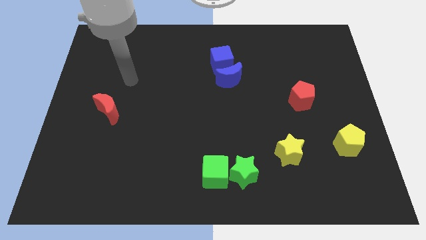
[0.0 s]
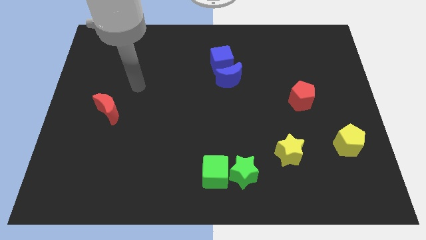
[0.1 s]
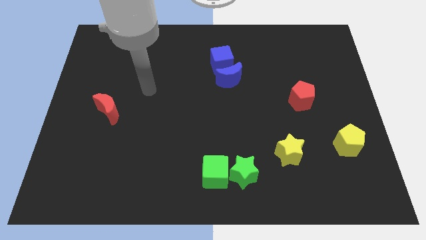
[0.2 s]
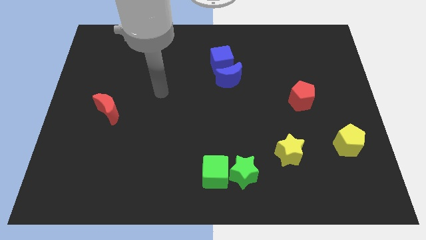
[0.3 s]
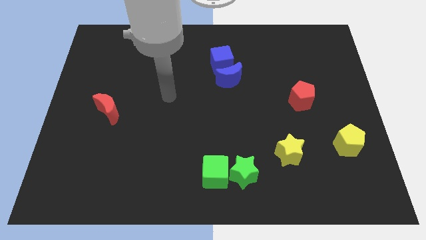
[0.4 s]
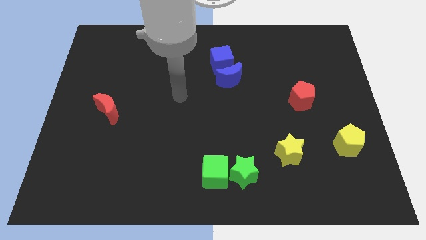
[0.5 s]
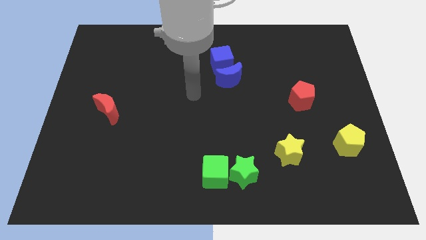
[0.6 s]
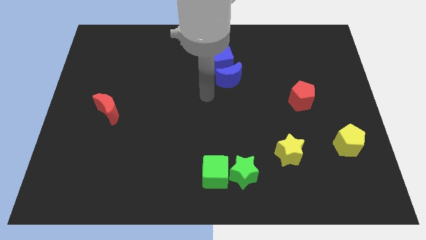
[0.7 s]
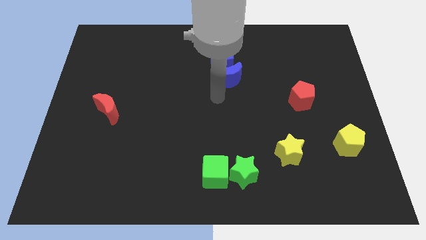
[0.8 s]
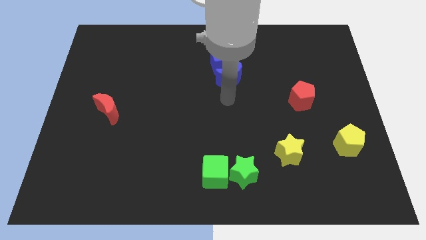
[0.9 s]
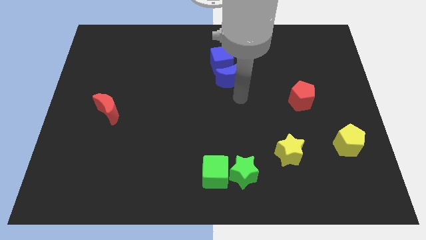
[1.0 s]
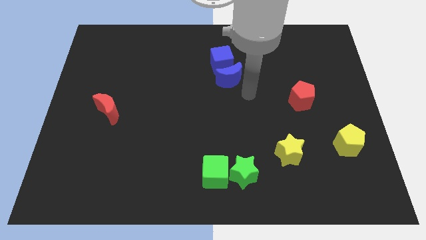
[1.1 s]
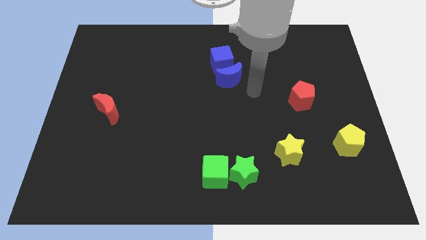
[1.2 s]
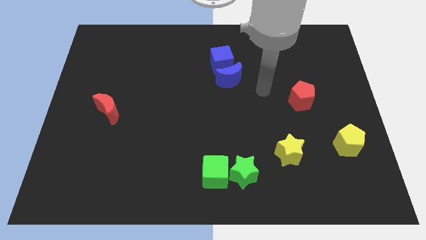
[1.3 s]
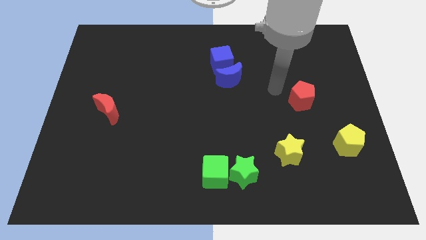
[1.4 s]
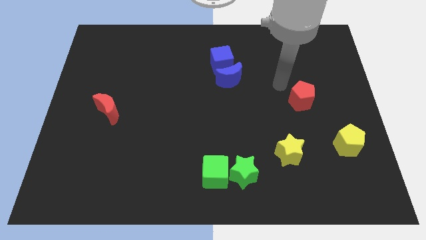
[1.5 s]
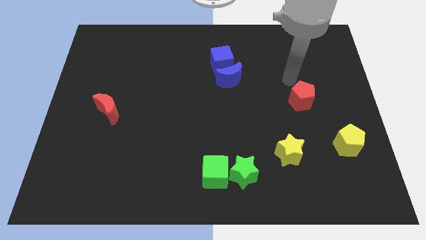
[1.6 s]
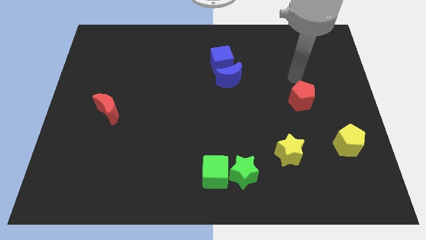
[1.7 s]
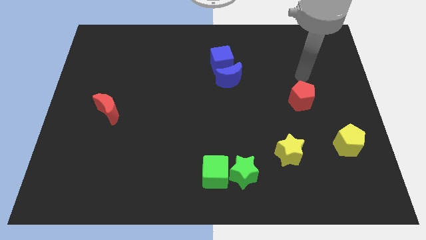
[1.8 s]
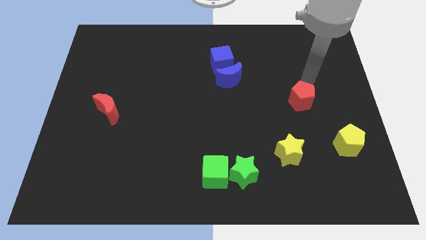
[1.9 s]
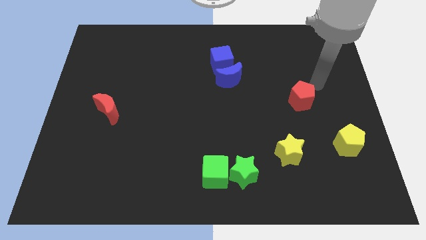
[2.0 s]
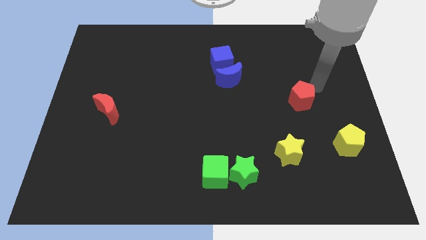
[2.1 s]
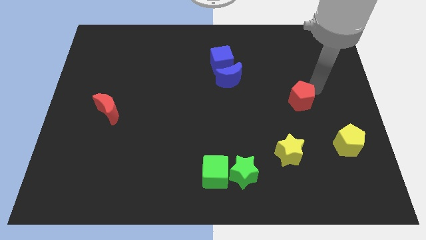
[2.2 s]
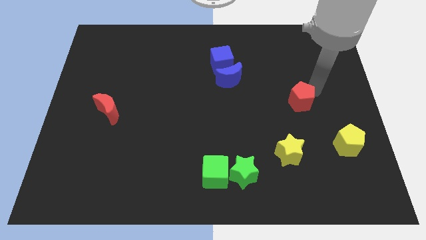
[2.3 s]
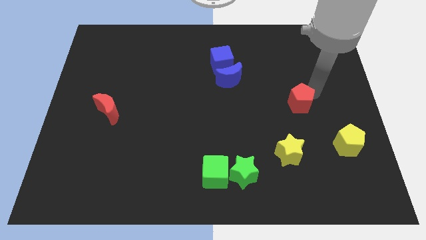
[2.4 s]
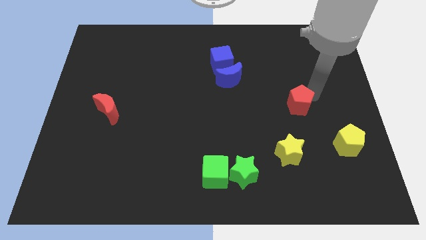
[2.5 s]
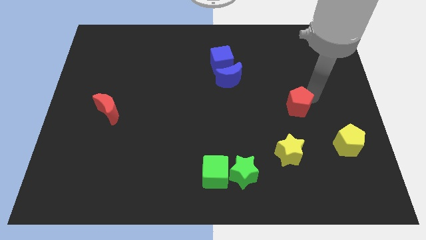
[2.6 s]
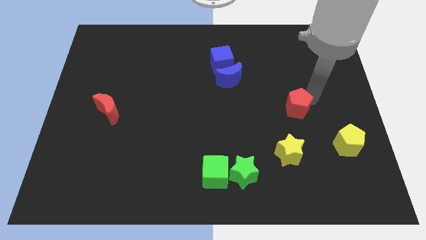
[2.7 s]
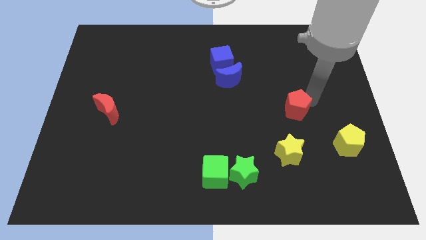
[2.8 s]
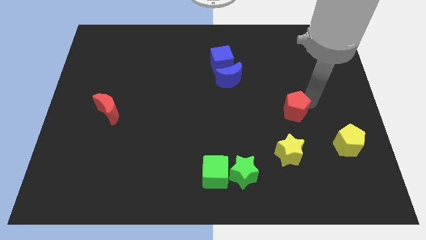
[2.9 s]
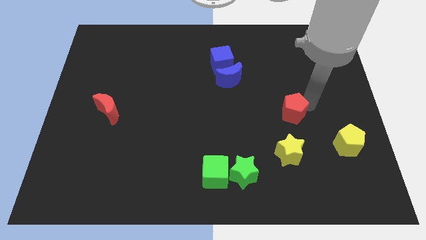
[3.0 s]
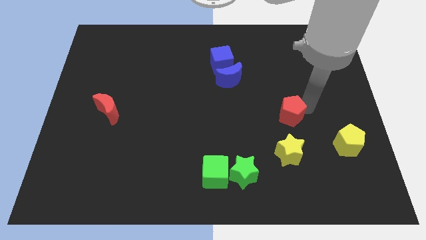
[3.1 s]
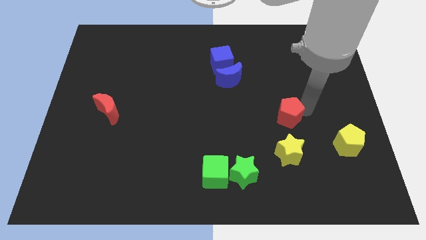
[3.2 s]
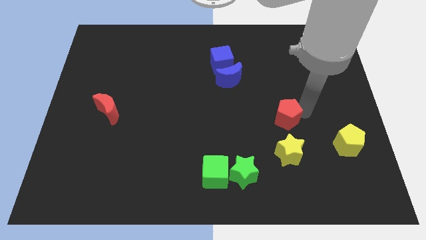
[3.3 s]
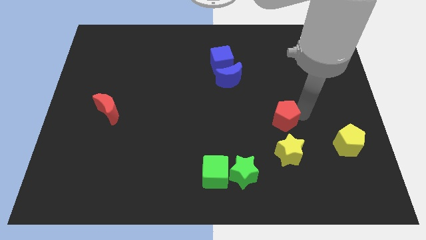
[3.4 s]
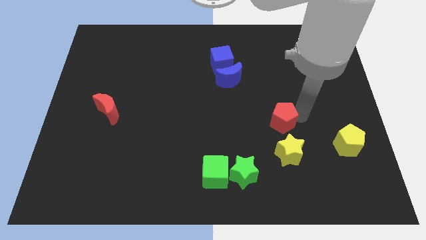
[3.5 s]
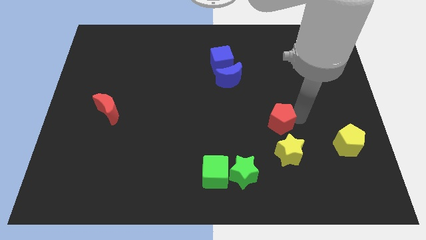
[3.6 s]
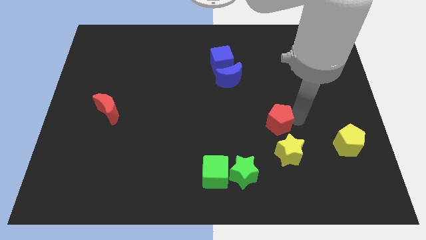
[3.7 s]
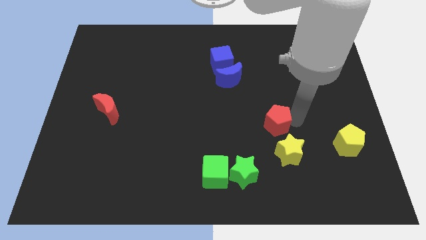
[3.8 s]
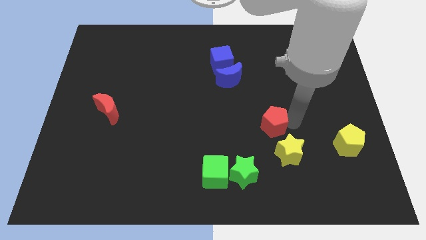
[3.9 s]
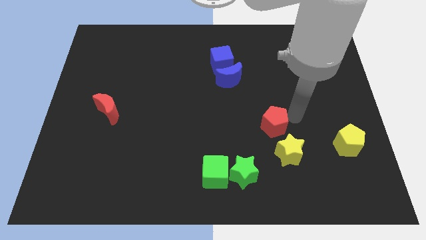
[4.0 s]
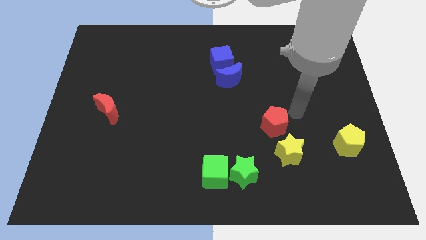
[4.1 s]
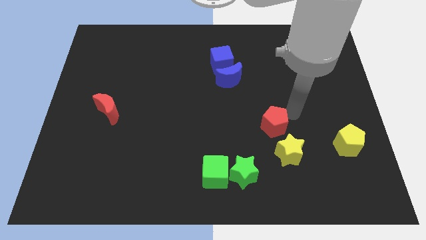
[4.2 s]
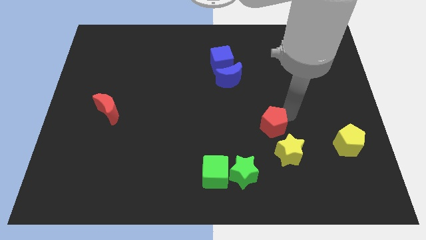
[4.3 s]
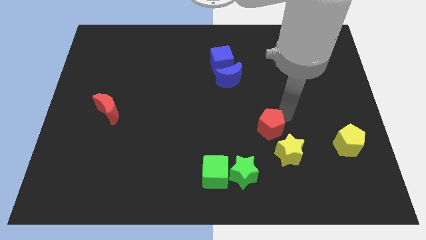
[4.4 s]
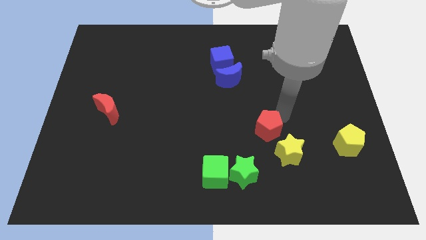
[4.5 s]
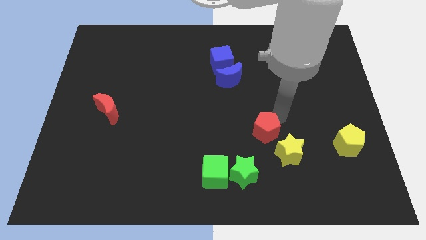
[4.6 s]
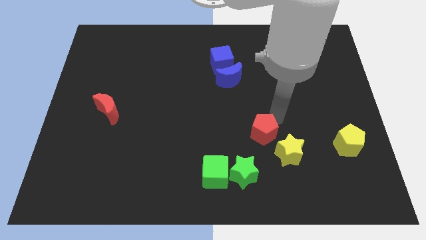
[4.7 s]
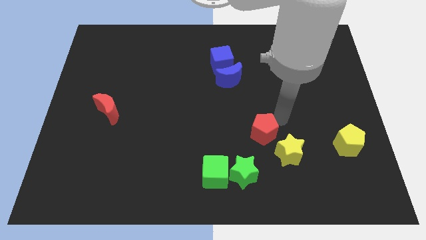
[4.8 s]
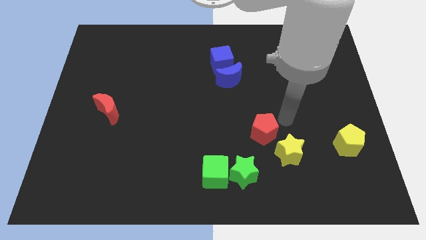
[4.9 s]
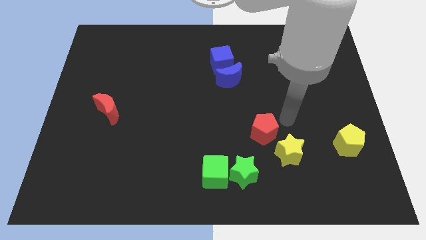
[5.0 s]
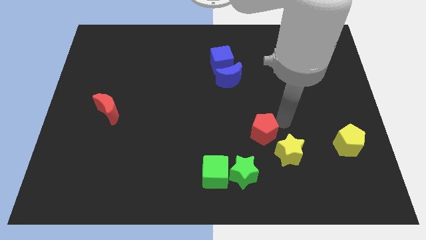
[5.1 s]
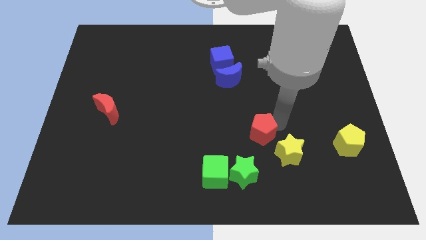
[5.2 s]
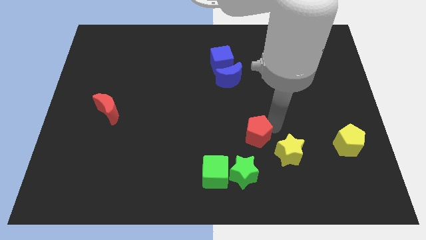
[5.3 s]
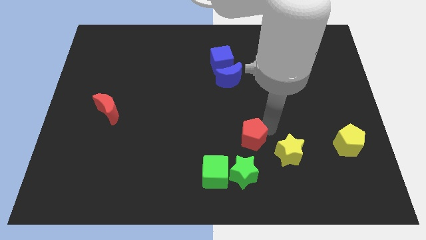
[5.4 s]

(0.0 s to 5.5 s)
slide the red pentagon diagonally up and to the right of the green cube

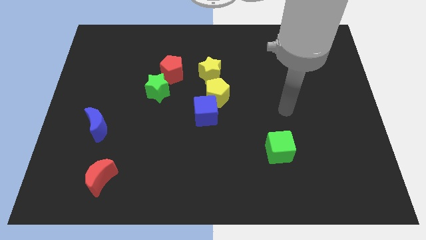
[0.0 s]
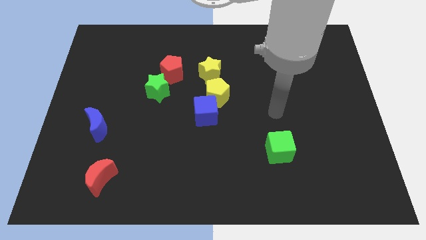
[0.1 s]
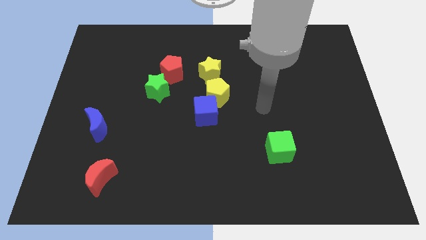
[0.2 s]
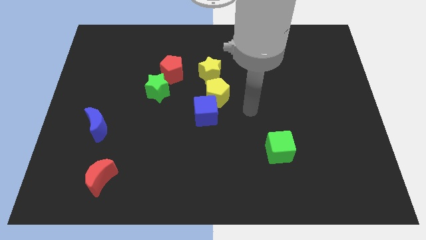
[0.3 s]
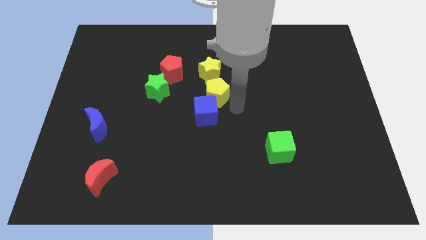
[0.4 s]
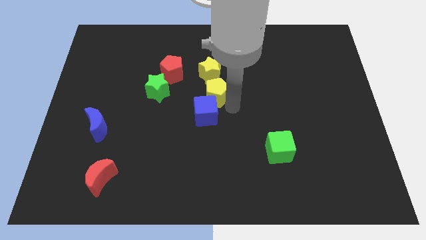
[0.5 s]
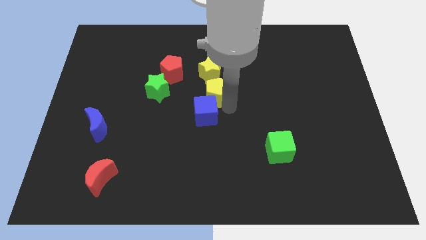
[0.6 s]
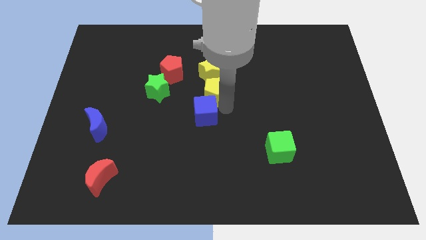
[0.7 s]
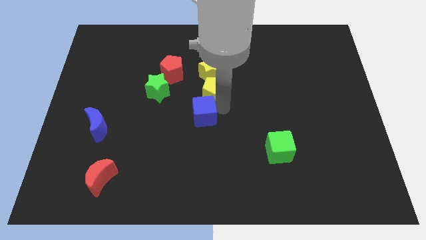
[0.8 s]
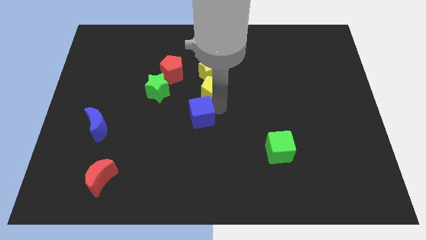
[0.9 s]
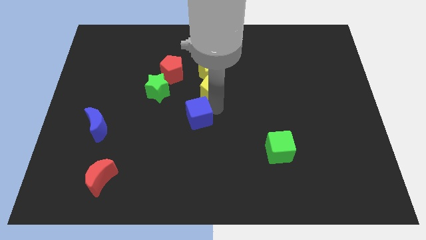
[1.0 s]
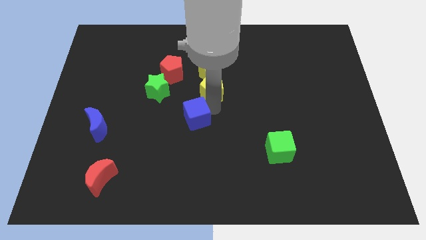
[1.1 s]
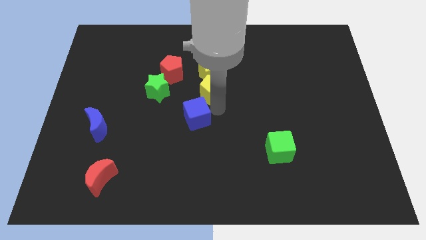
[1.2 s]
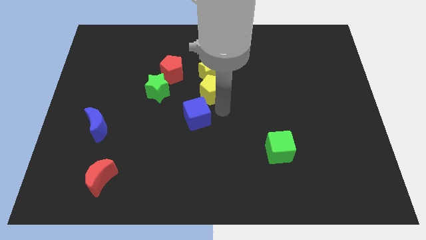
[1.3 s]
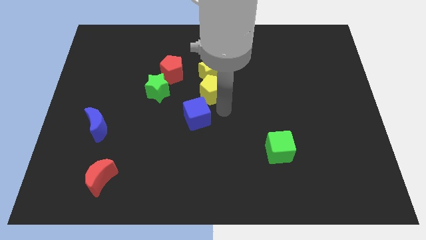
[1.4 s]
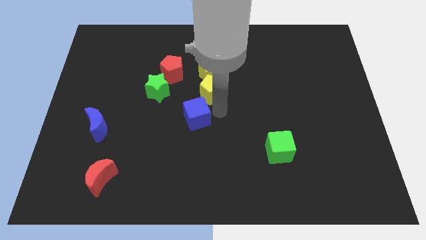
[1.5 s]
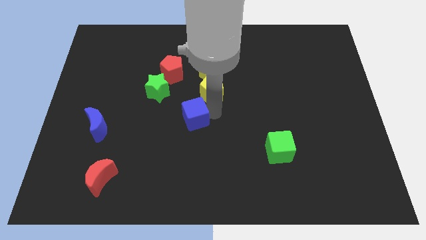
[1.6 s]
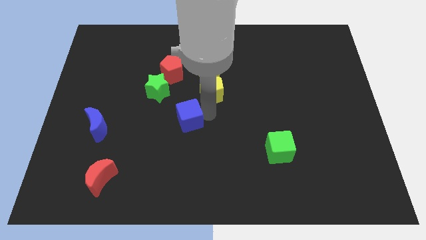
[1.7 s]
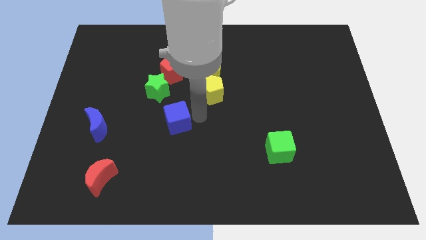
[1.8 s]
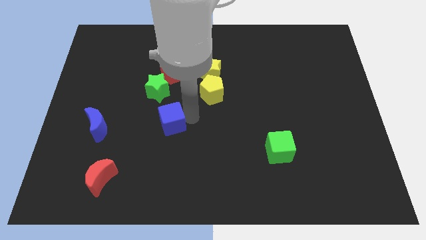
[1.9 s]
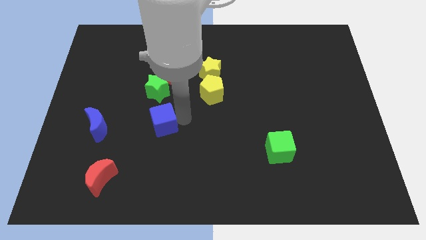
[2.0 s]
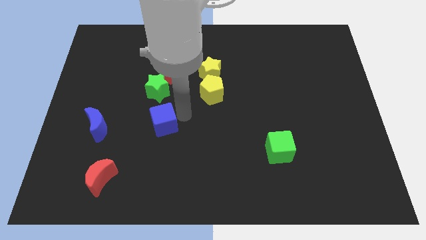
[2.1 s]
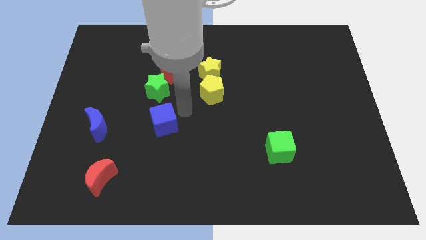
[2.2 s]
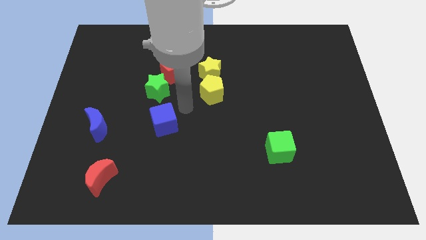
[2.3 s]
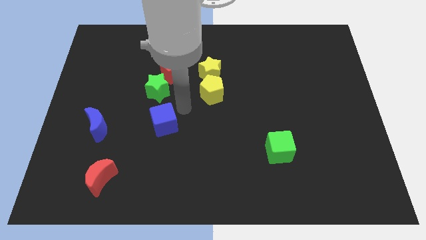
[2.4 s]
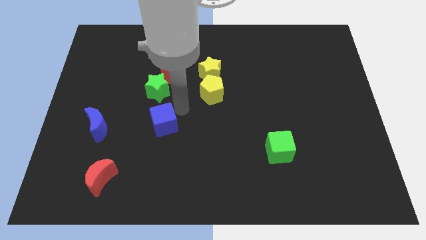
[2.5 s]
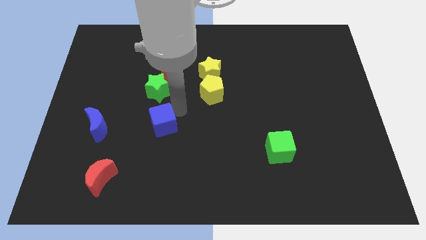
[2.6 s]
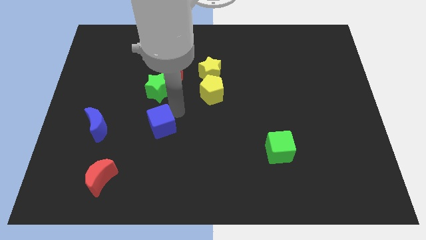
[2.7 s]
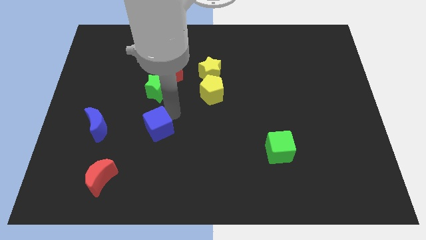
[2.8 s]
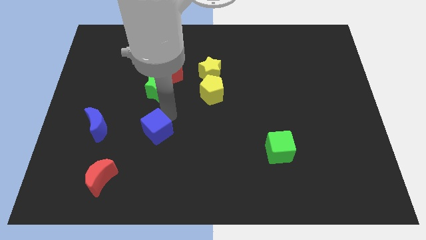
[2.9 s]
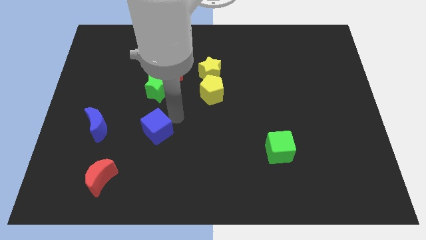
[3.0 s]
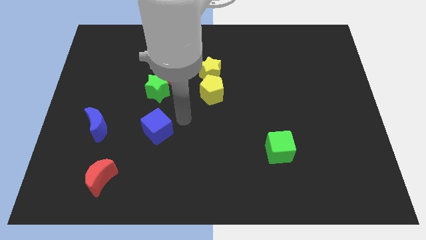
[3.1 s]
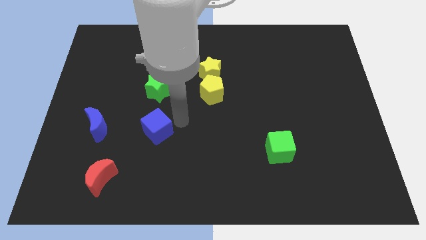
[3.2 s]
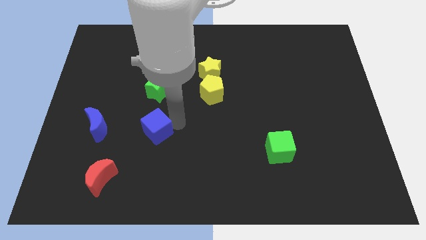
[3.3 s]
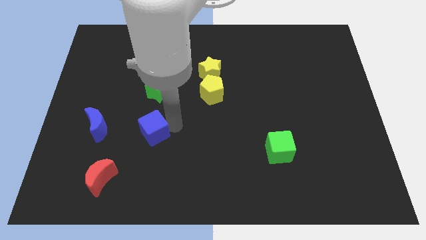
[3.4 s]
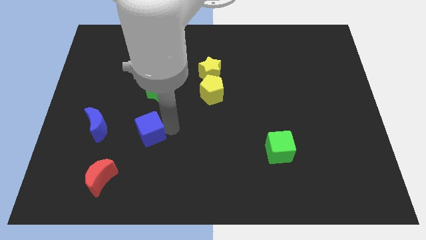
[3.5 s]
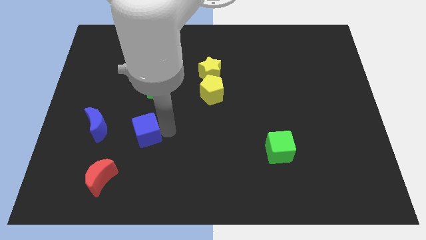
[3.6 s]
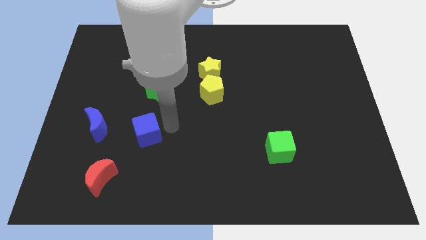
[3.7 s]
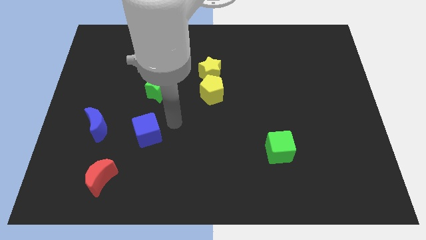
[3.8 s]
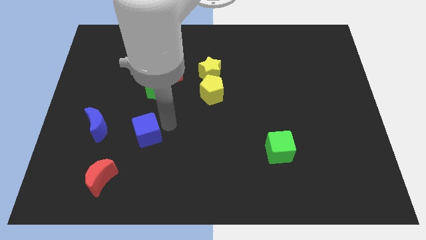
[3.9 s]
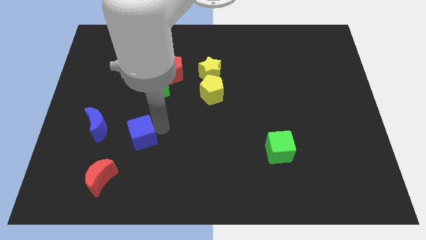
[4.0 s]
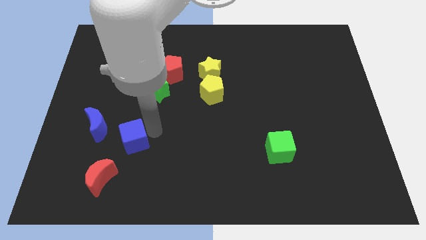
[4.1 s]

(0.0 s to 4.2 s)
move the blue cube to the bottom right of the blue moon
